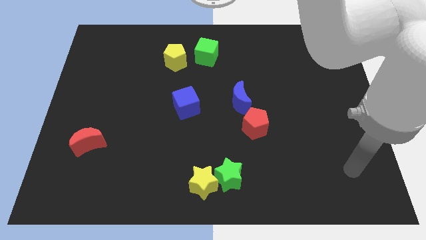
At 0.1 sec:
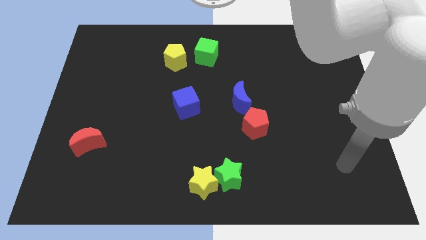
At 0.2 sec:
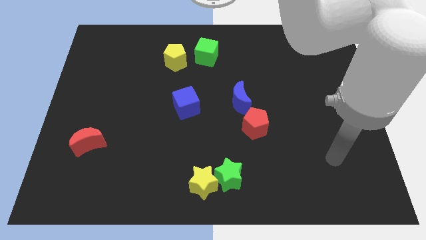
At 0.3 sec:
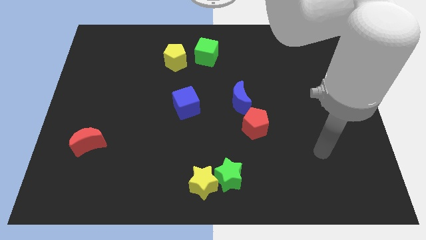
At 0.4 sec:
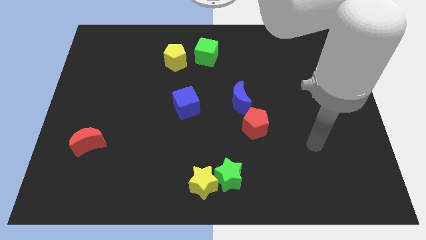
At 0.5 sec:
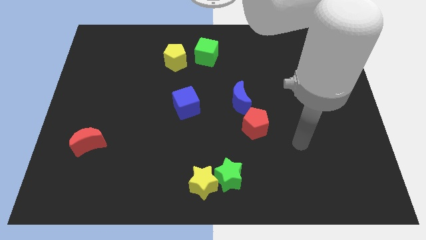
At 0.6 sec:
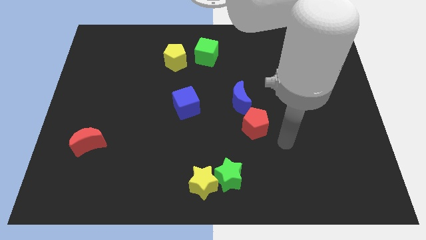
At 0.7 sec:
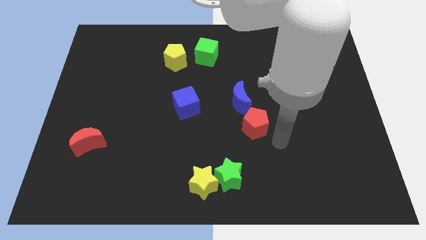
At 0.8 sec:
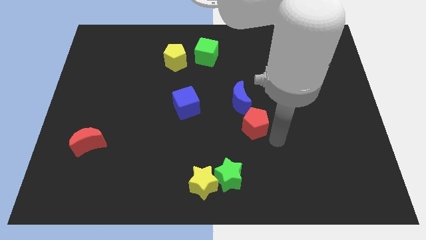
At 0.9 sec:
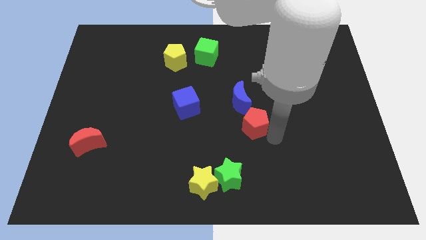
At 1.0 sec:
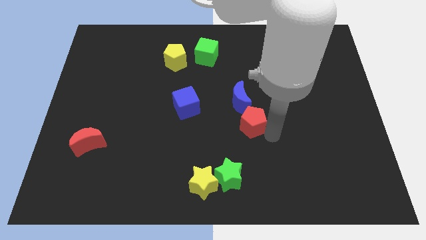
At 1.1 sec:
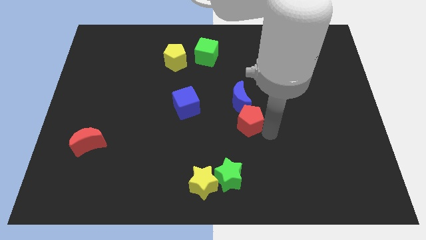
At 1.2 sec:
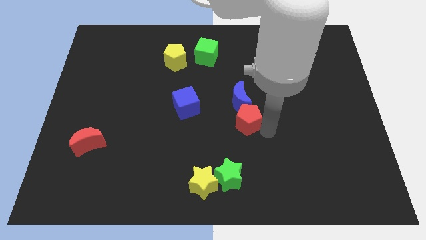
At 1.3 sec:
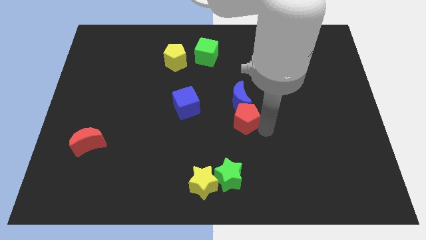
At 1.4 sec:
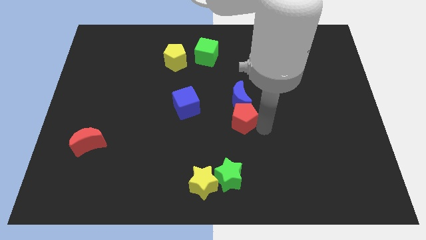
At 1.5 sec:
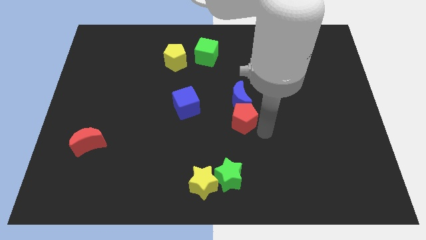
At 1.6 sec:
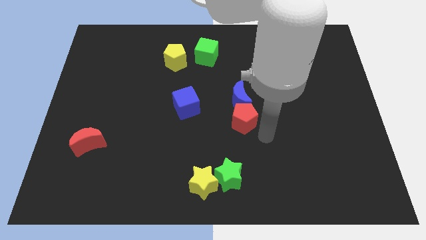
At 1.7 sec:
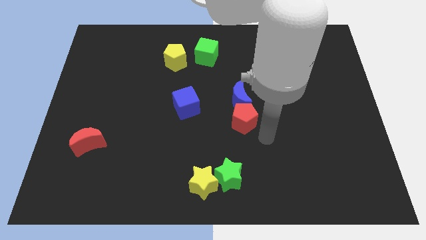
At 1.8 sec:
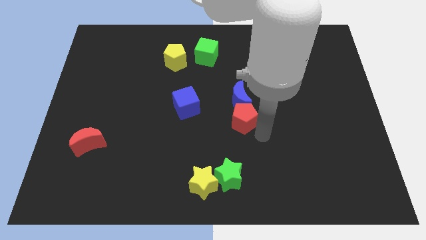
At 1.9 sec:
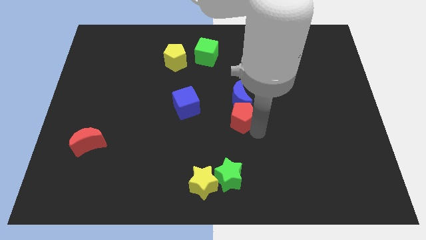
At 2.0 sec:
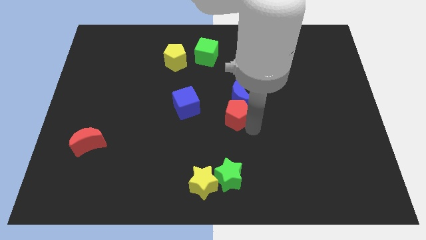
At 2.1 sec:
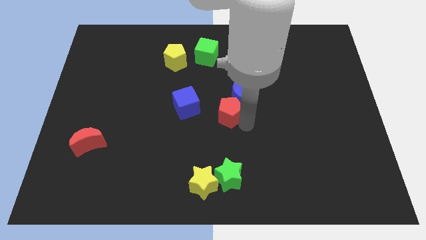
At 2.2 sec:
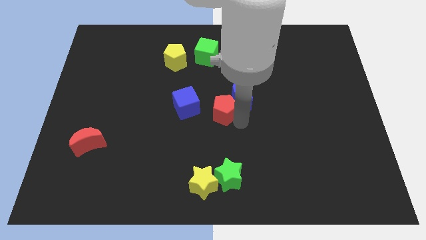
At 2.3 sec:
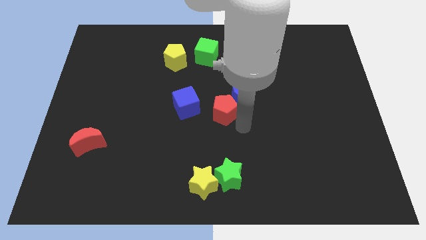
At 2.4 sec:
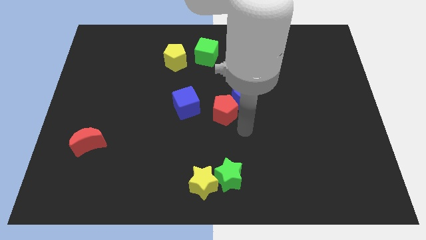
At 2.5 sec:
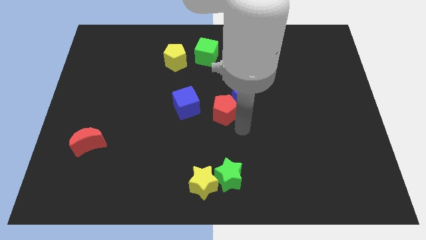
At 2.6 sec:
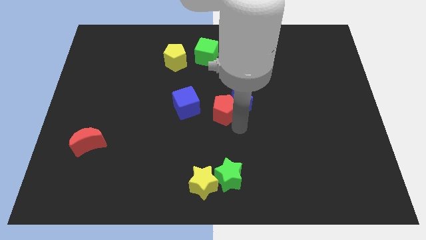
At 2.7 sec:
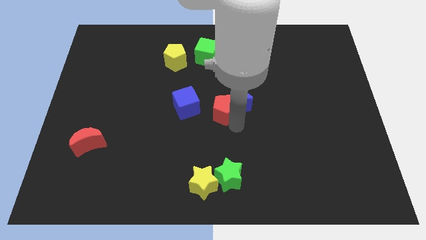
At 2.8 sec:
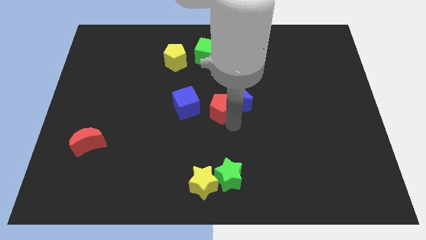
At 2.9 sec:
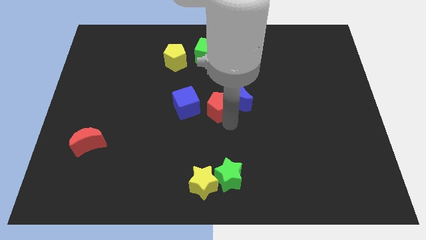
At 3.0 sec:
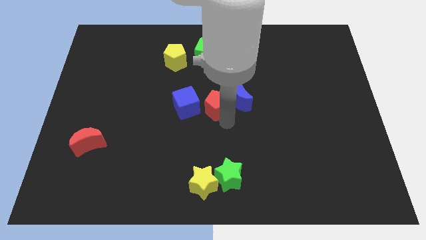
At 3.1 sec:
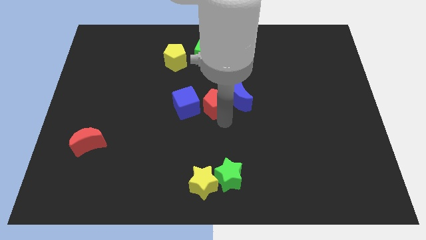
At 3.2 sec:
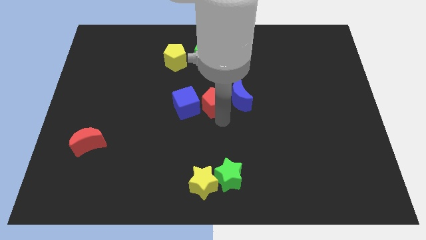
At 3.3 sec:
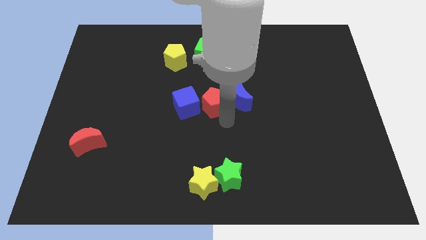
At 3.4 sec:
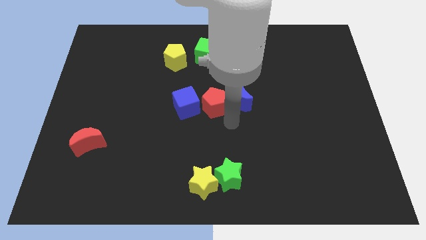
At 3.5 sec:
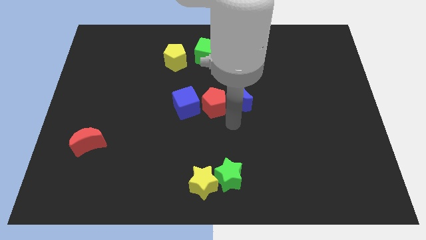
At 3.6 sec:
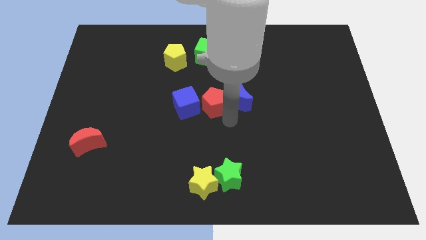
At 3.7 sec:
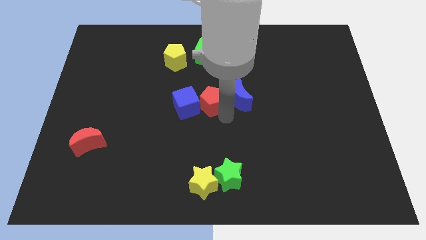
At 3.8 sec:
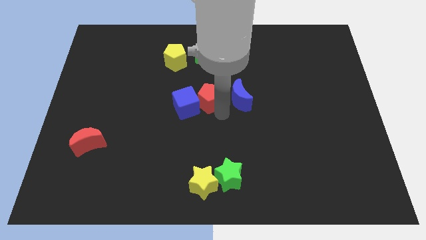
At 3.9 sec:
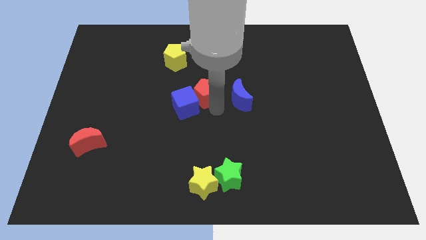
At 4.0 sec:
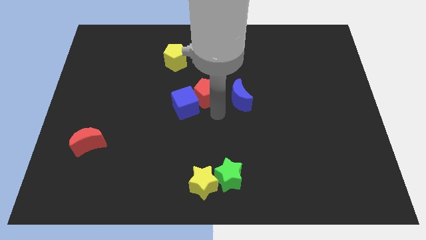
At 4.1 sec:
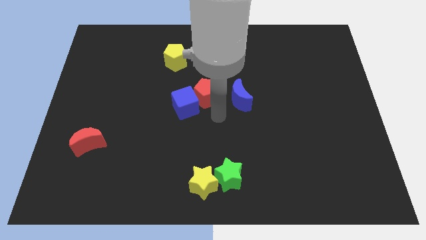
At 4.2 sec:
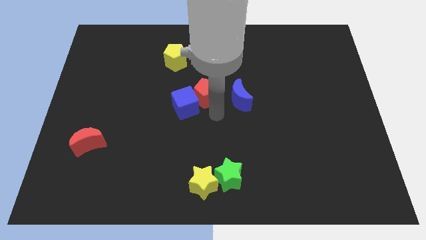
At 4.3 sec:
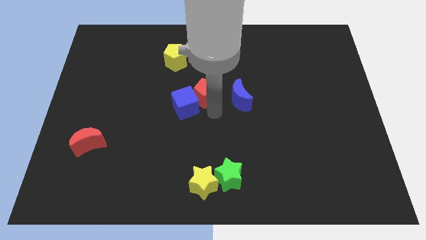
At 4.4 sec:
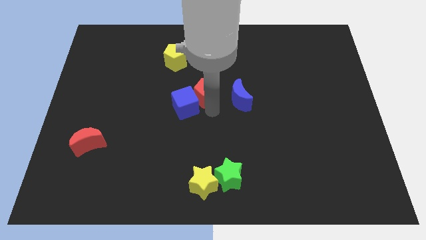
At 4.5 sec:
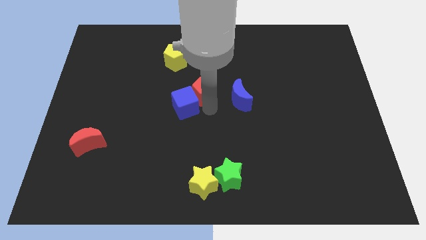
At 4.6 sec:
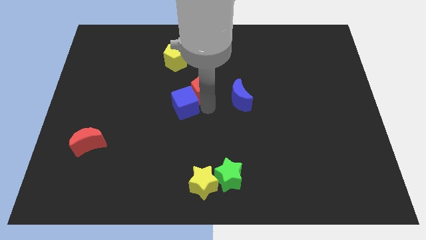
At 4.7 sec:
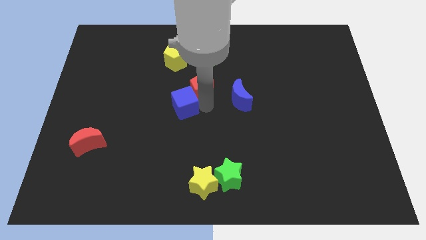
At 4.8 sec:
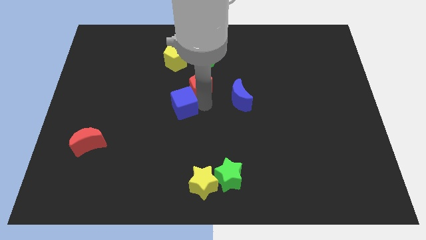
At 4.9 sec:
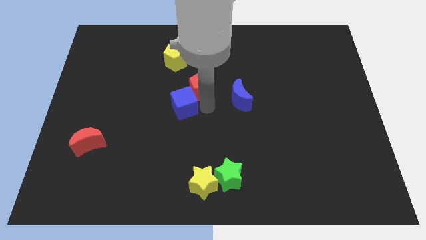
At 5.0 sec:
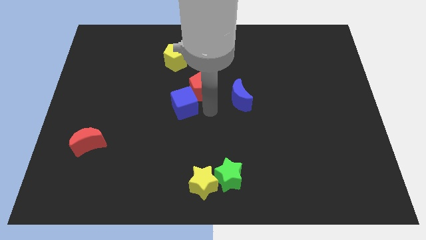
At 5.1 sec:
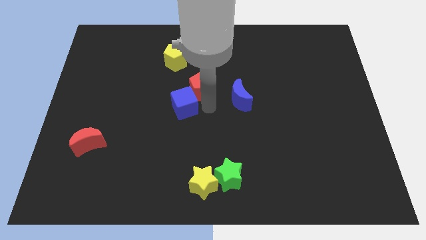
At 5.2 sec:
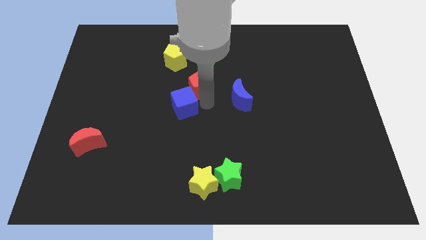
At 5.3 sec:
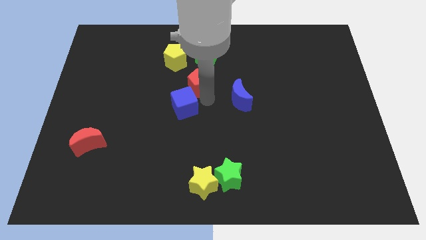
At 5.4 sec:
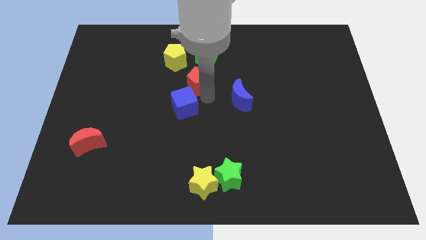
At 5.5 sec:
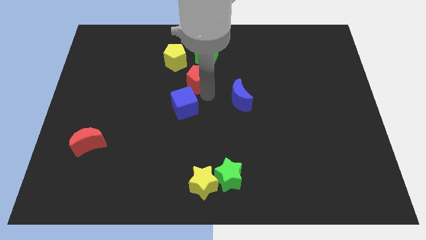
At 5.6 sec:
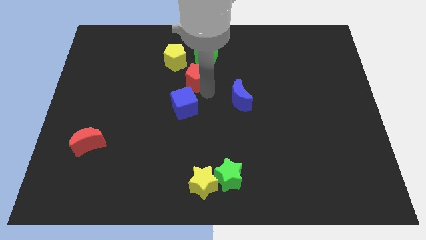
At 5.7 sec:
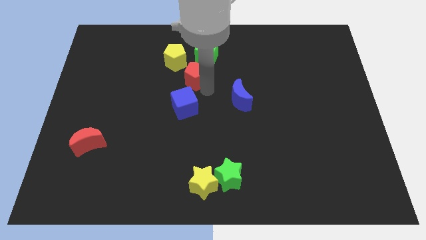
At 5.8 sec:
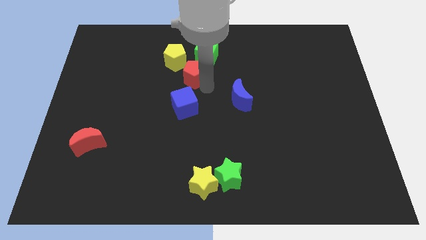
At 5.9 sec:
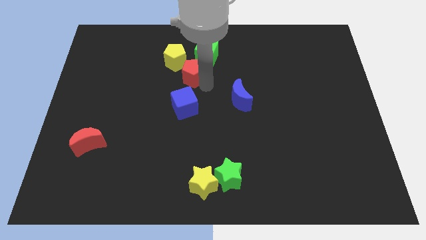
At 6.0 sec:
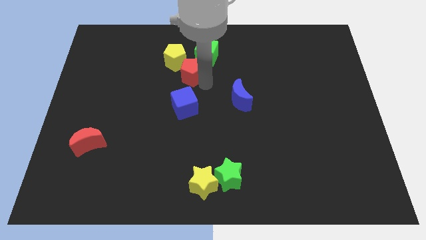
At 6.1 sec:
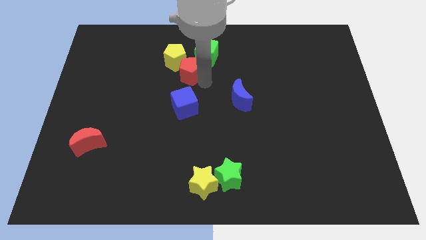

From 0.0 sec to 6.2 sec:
put the red pentagon towards the yellow pentagon

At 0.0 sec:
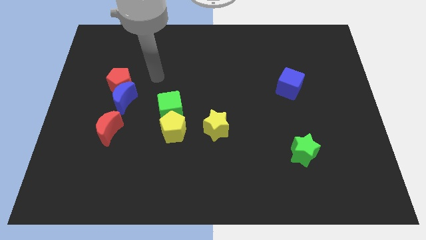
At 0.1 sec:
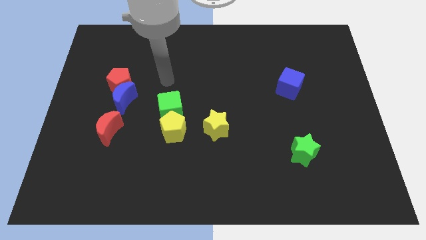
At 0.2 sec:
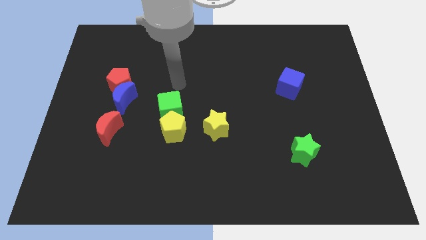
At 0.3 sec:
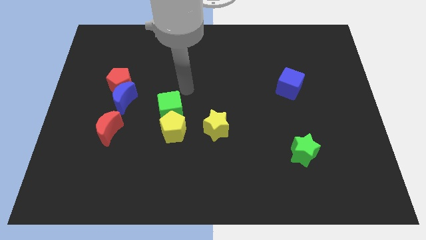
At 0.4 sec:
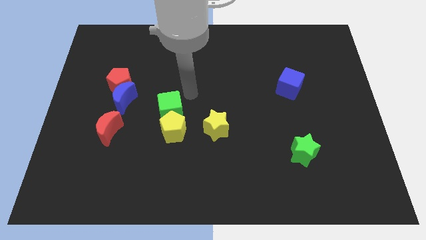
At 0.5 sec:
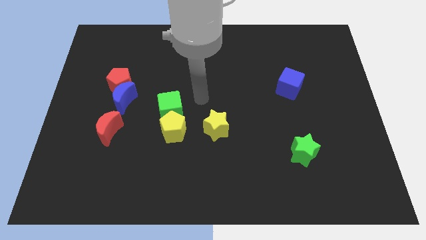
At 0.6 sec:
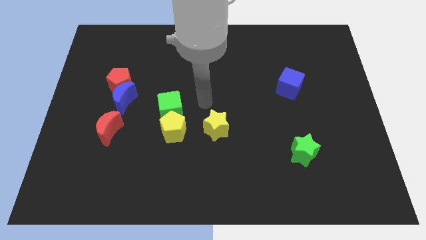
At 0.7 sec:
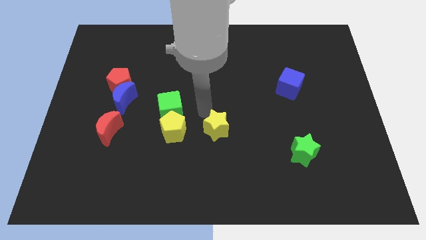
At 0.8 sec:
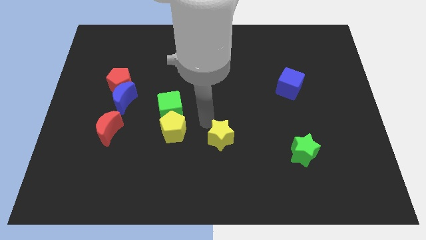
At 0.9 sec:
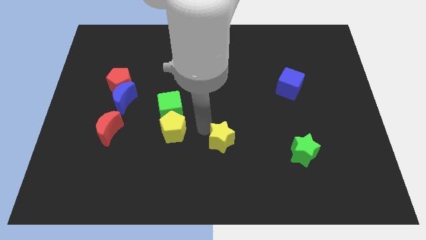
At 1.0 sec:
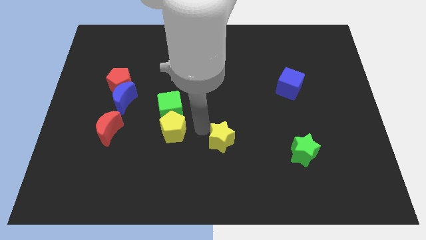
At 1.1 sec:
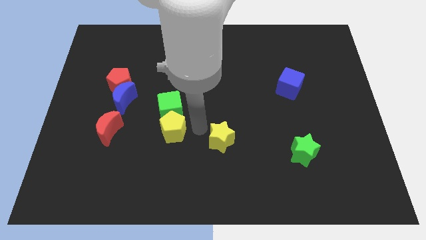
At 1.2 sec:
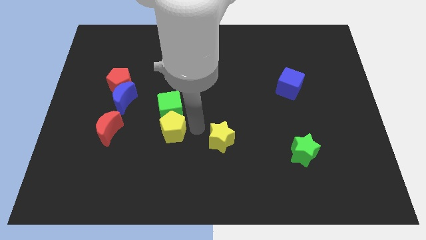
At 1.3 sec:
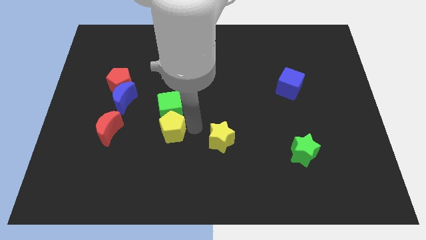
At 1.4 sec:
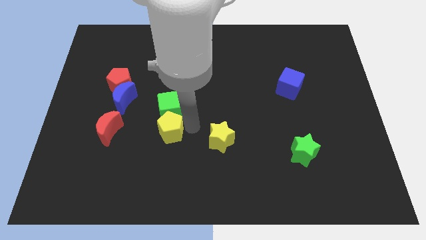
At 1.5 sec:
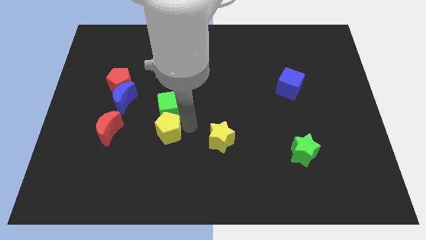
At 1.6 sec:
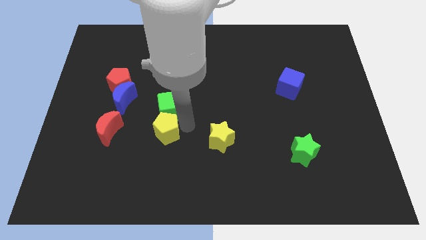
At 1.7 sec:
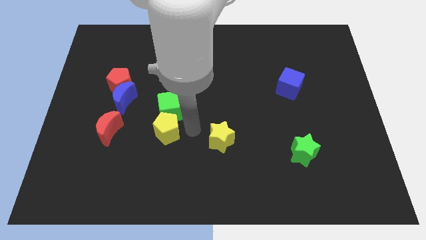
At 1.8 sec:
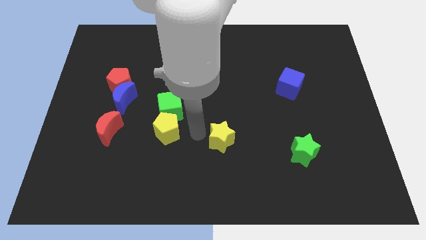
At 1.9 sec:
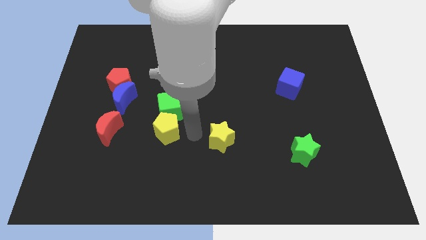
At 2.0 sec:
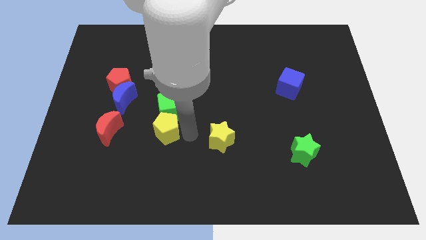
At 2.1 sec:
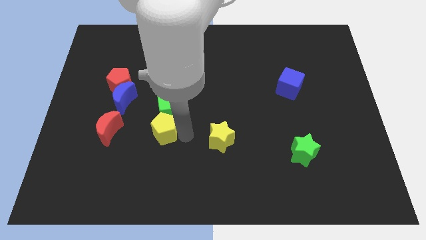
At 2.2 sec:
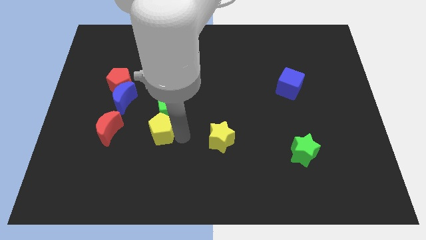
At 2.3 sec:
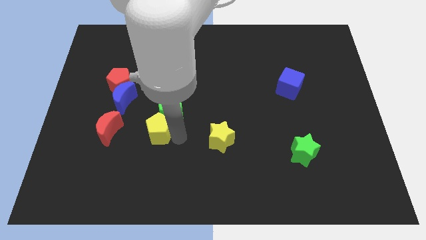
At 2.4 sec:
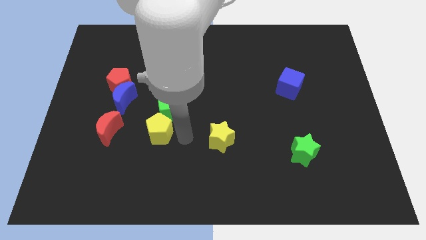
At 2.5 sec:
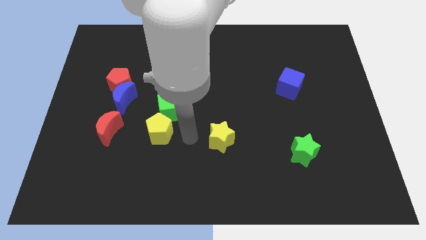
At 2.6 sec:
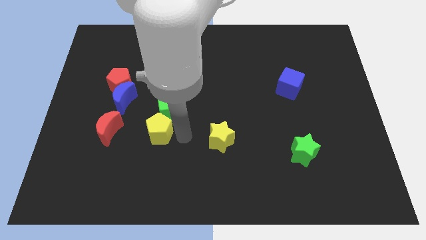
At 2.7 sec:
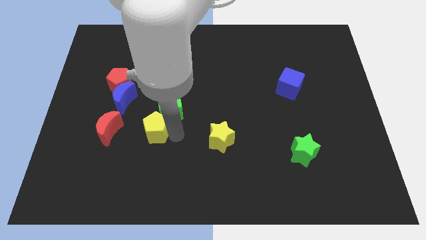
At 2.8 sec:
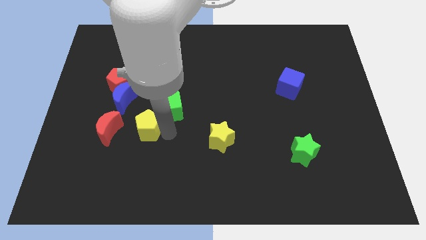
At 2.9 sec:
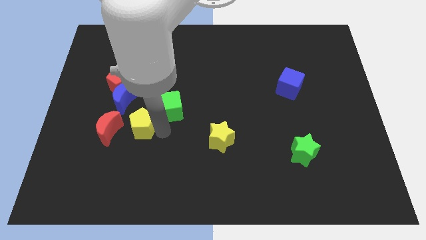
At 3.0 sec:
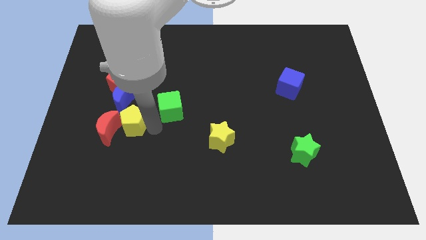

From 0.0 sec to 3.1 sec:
move the yellow pentagon next to the red moon
